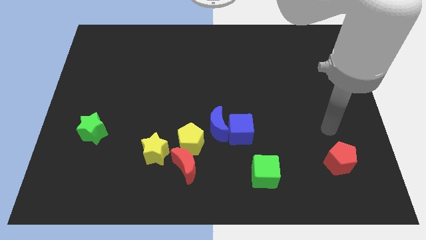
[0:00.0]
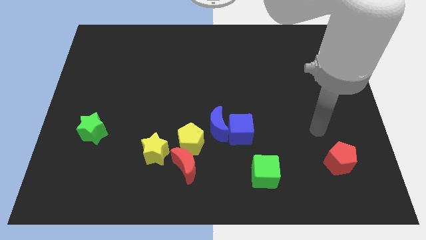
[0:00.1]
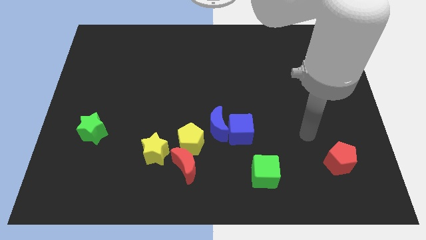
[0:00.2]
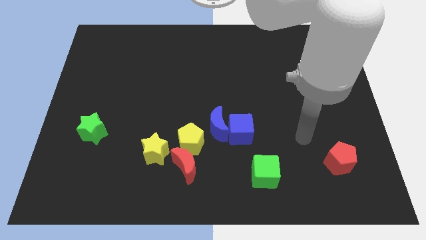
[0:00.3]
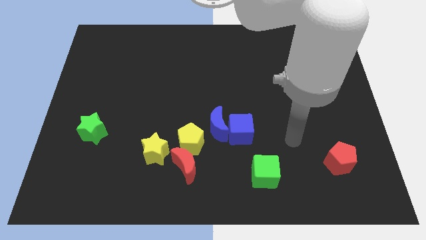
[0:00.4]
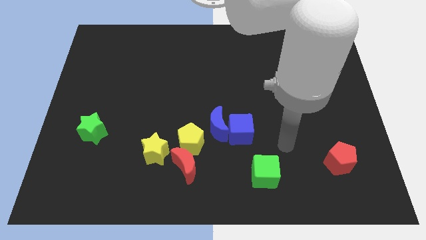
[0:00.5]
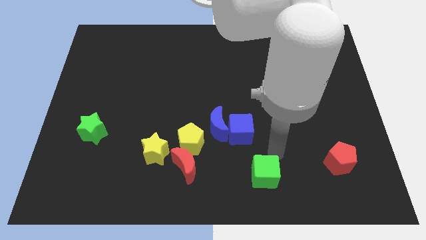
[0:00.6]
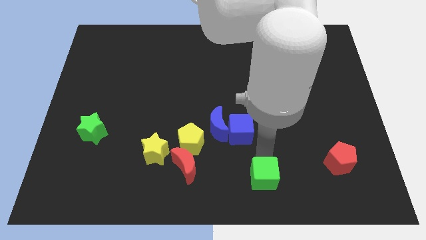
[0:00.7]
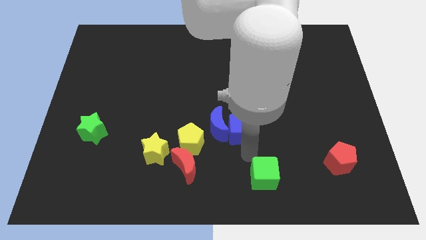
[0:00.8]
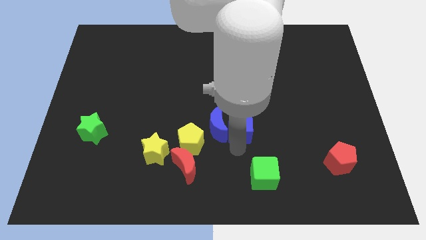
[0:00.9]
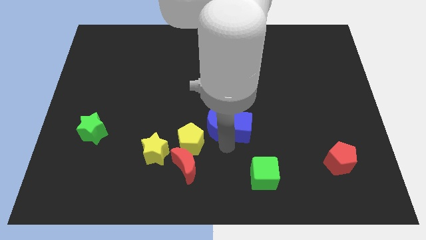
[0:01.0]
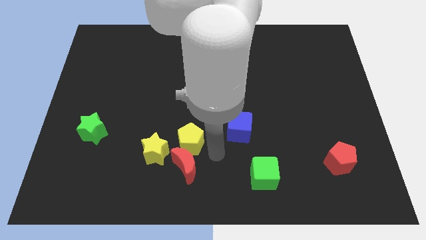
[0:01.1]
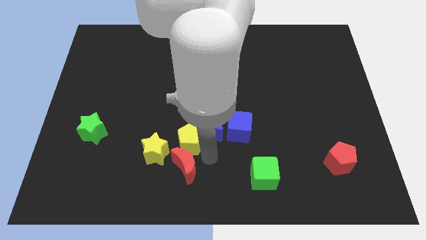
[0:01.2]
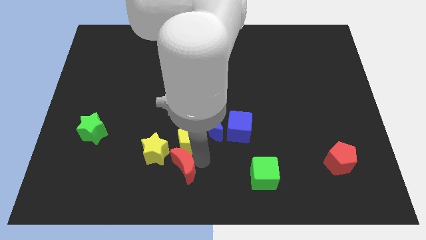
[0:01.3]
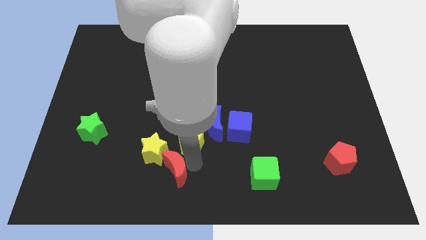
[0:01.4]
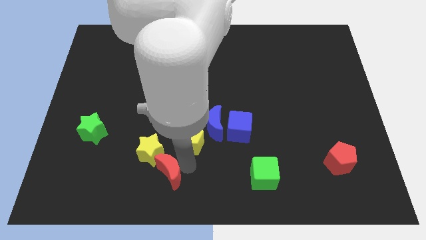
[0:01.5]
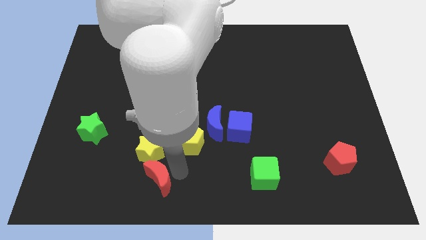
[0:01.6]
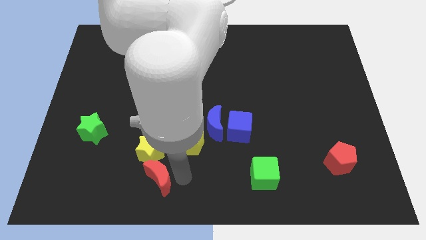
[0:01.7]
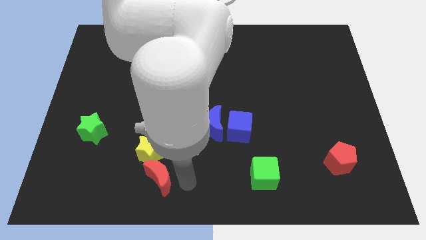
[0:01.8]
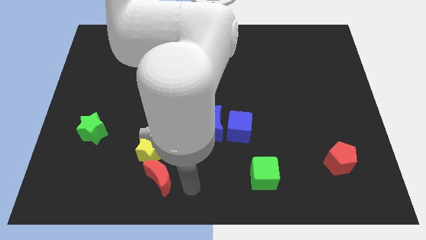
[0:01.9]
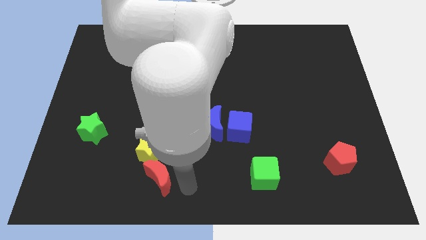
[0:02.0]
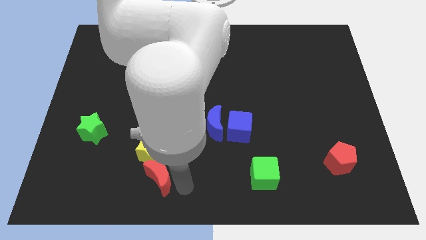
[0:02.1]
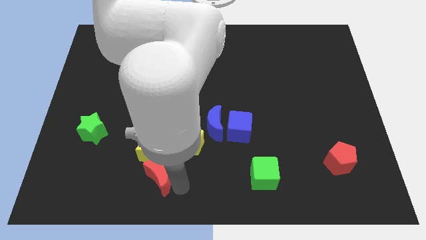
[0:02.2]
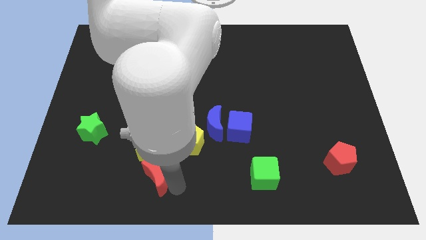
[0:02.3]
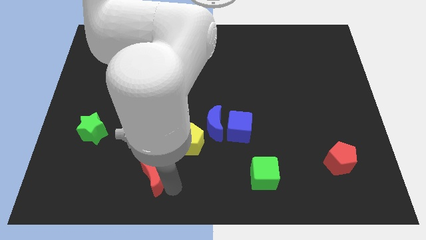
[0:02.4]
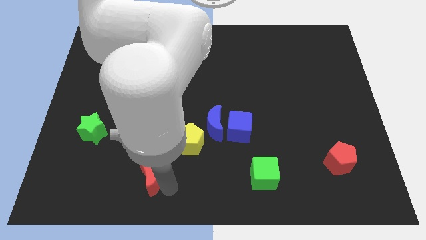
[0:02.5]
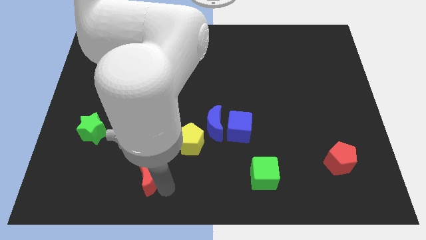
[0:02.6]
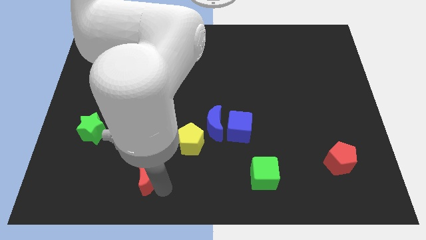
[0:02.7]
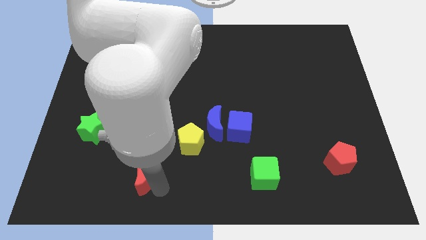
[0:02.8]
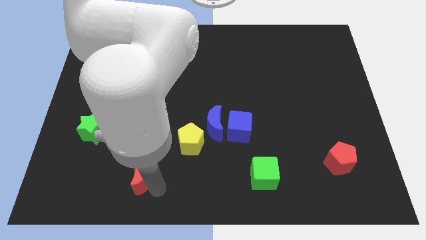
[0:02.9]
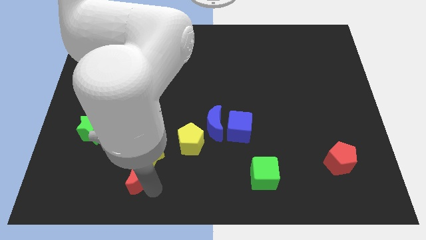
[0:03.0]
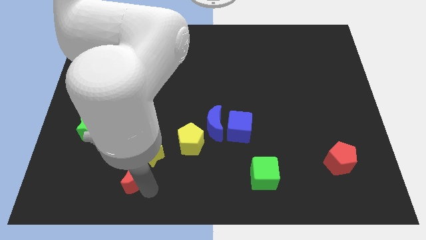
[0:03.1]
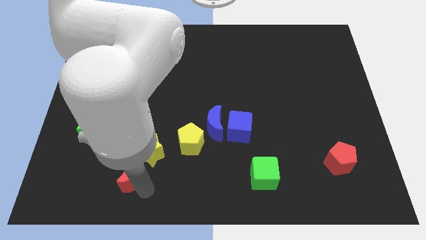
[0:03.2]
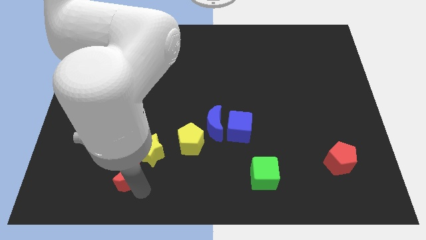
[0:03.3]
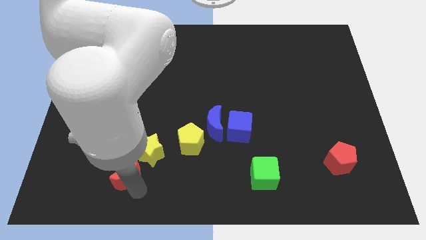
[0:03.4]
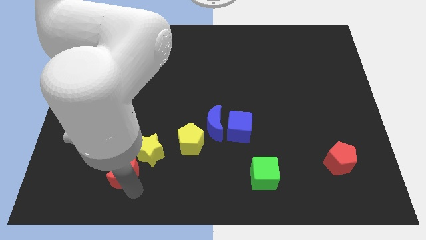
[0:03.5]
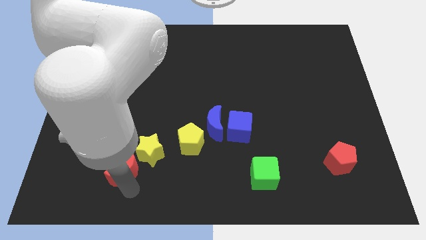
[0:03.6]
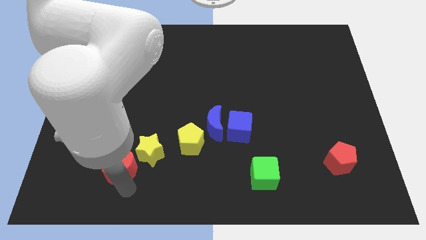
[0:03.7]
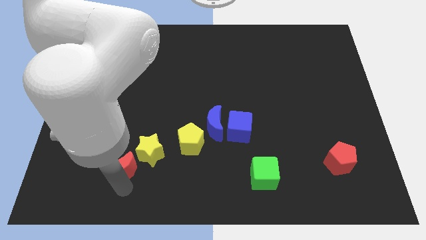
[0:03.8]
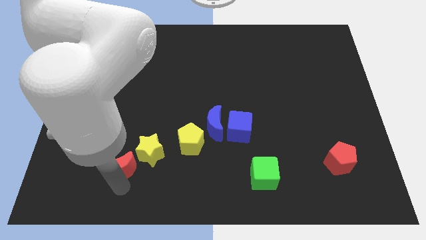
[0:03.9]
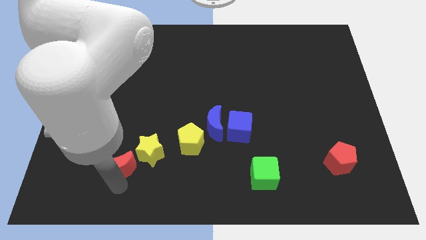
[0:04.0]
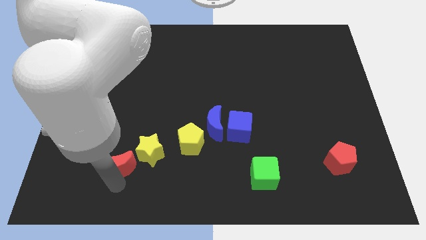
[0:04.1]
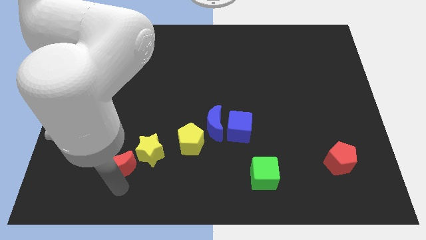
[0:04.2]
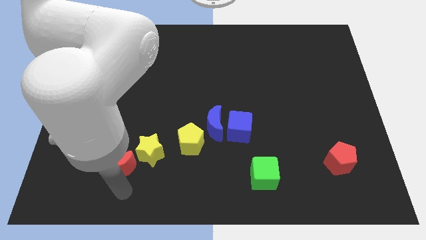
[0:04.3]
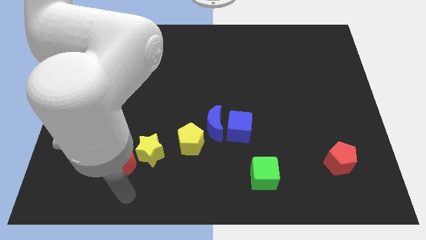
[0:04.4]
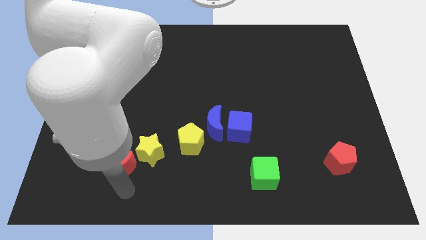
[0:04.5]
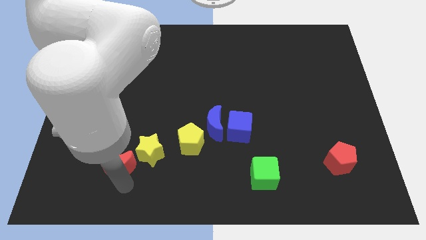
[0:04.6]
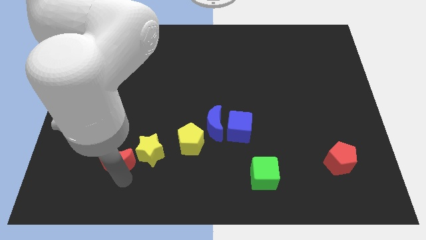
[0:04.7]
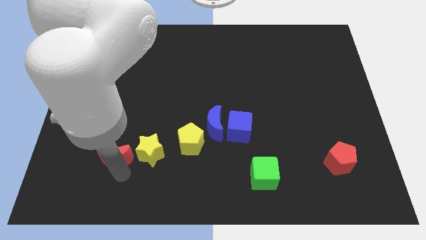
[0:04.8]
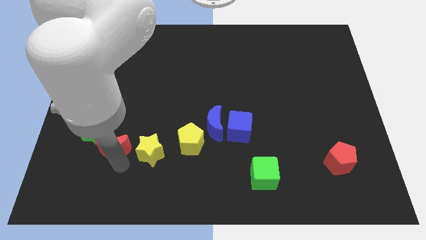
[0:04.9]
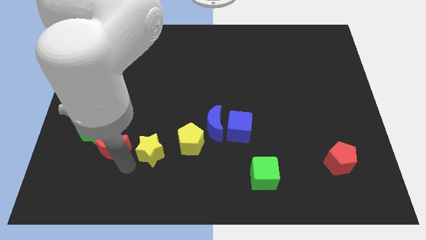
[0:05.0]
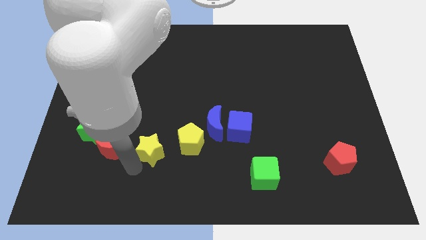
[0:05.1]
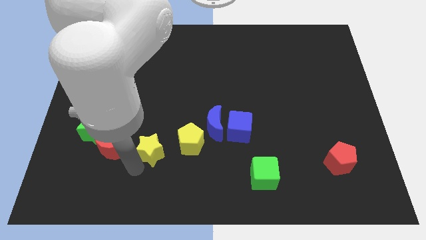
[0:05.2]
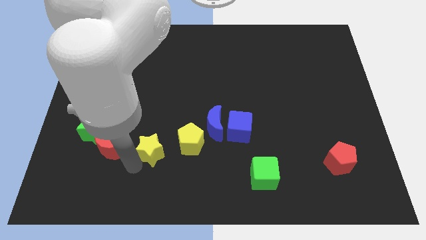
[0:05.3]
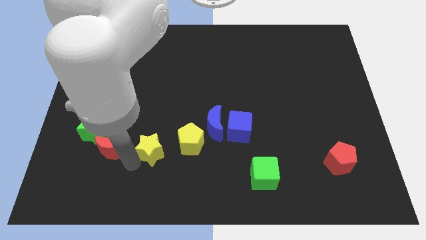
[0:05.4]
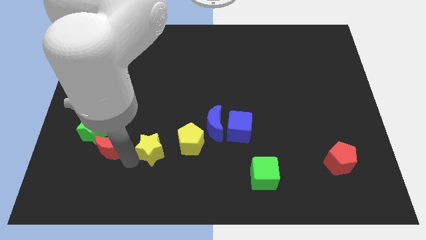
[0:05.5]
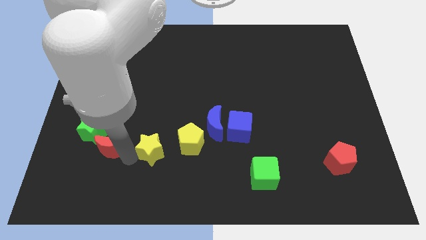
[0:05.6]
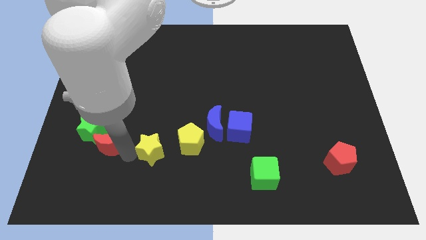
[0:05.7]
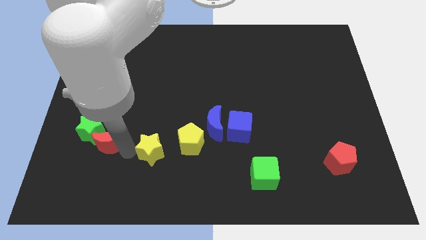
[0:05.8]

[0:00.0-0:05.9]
move the red moon towards the green star
